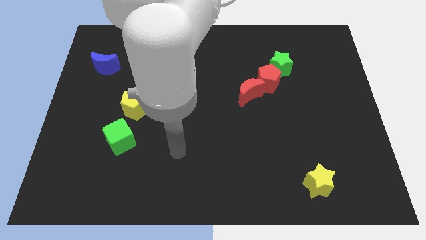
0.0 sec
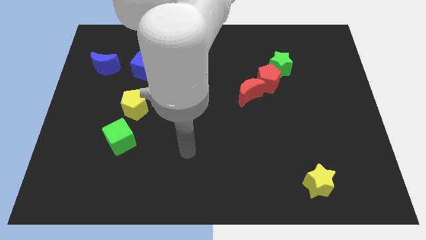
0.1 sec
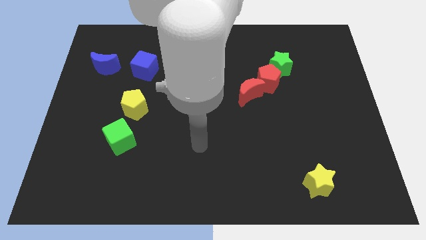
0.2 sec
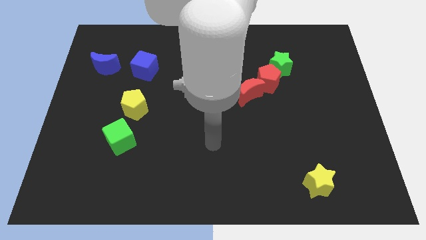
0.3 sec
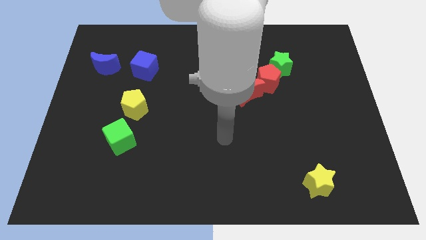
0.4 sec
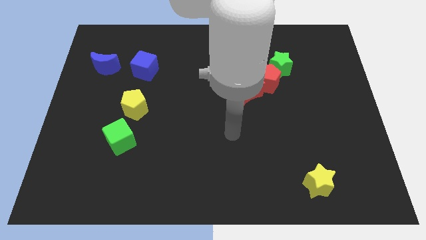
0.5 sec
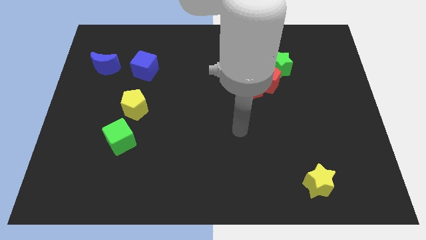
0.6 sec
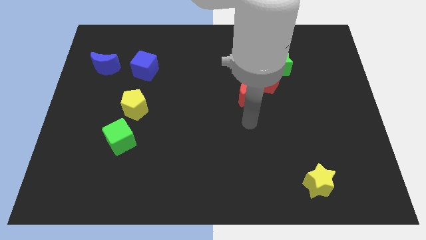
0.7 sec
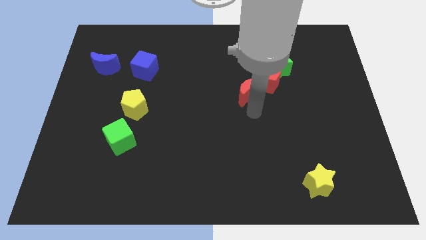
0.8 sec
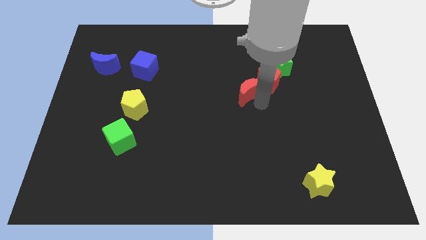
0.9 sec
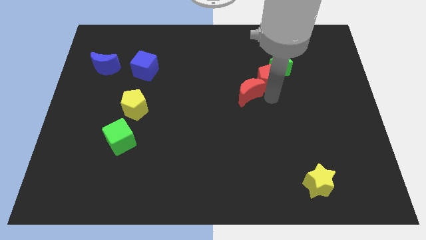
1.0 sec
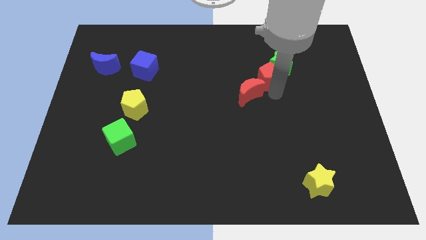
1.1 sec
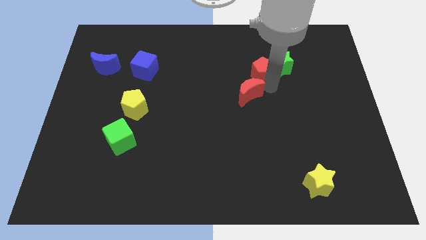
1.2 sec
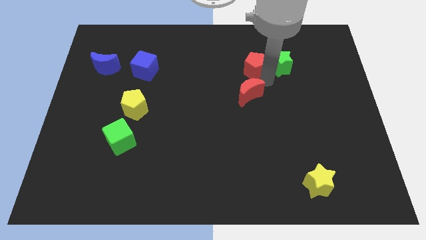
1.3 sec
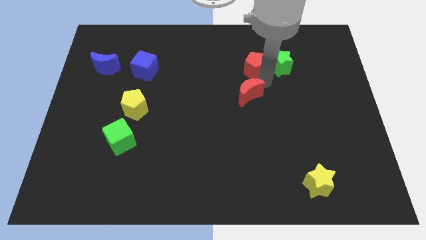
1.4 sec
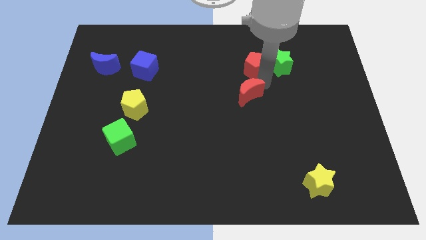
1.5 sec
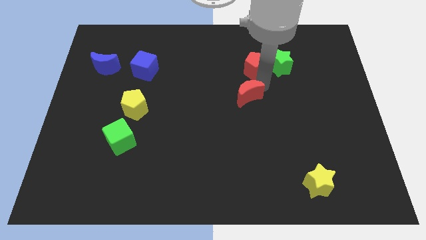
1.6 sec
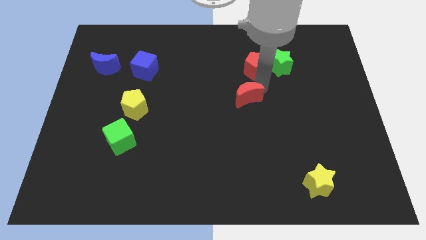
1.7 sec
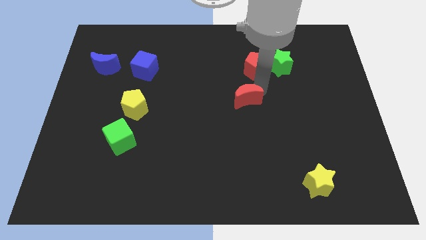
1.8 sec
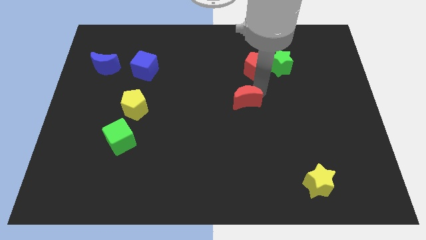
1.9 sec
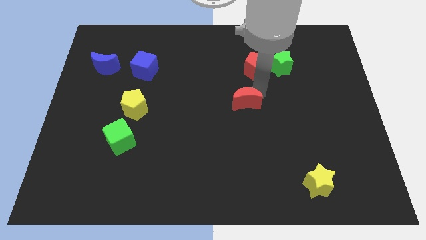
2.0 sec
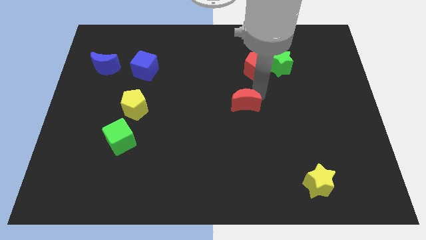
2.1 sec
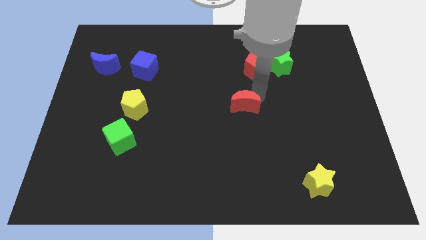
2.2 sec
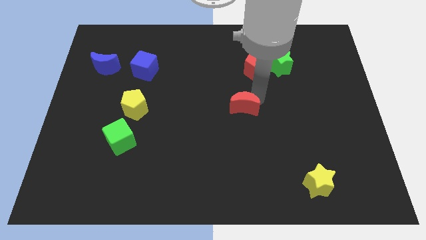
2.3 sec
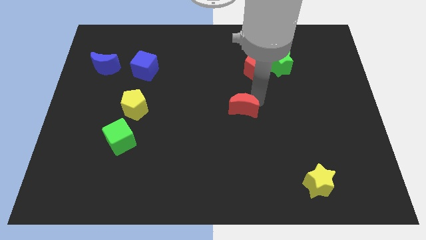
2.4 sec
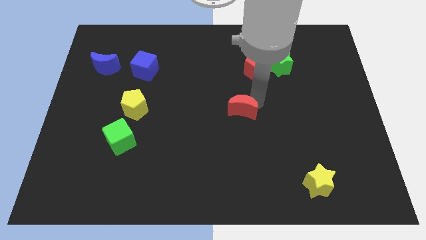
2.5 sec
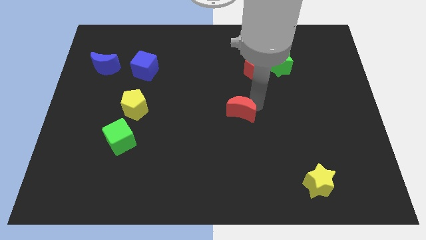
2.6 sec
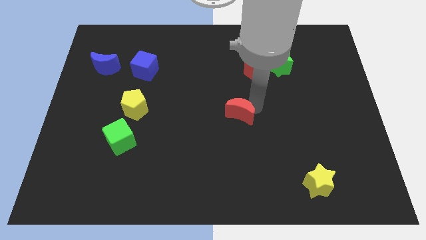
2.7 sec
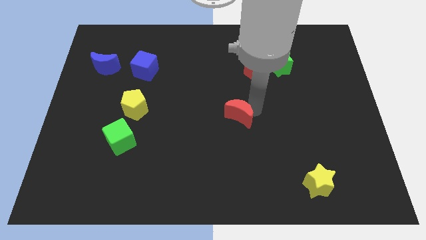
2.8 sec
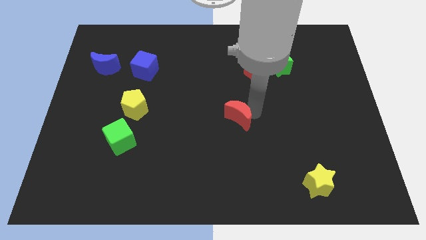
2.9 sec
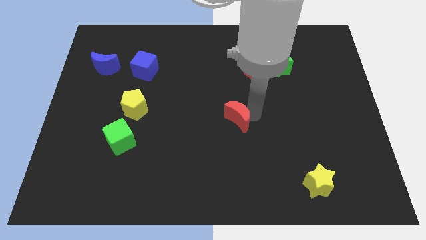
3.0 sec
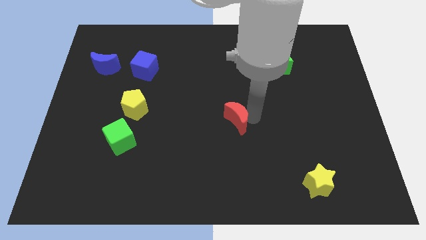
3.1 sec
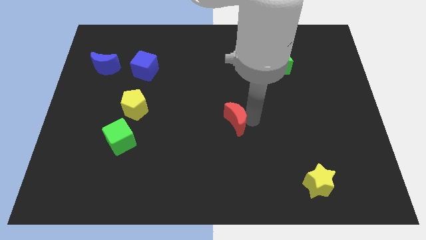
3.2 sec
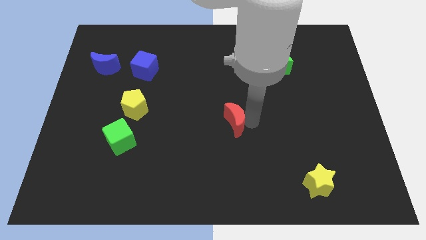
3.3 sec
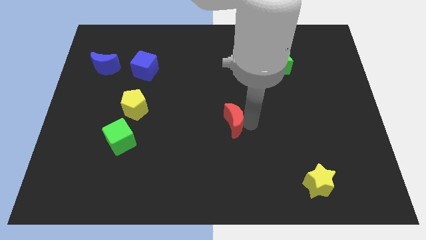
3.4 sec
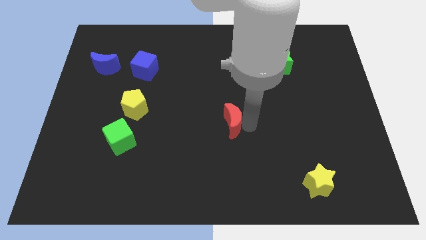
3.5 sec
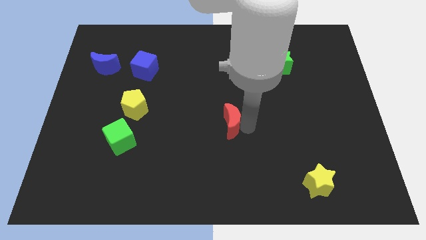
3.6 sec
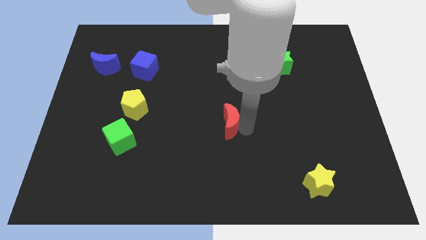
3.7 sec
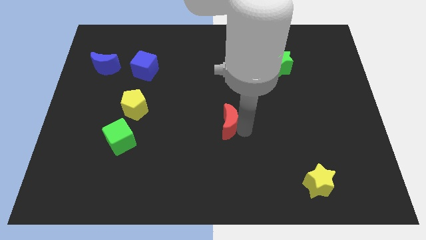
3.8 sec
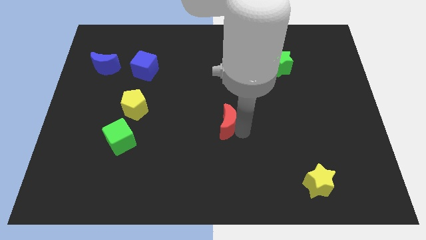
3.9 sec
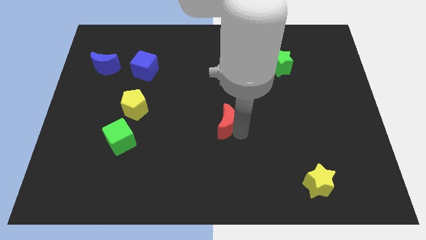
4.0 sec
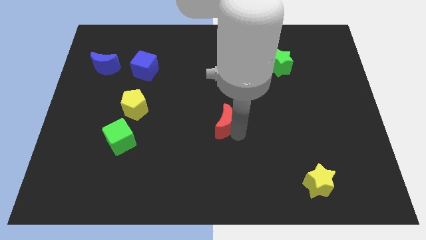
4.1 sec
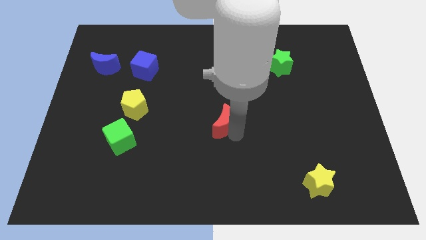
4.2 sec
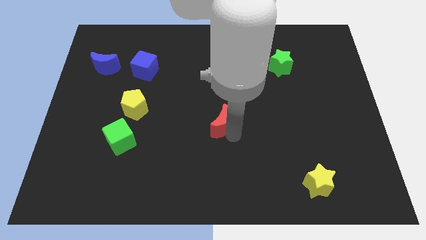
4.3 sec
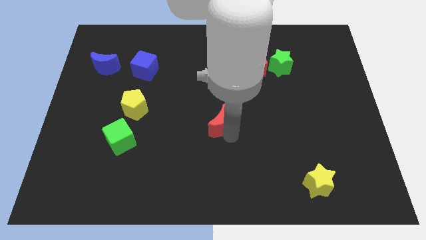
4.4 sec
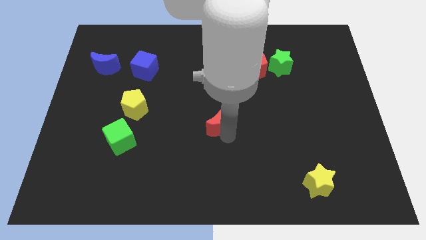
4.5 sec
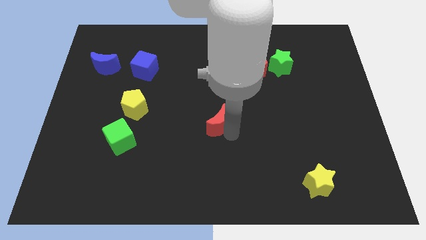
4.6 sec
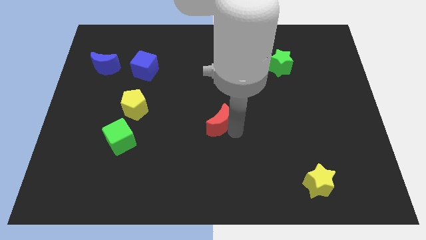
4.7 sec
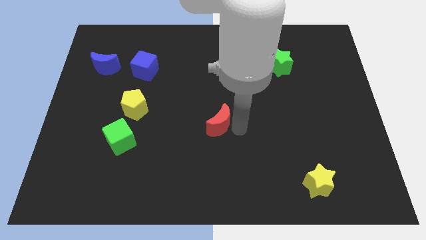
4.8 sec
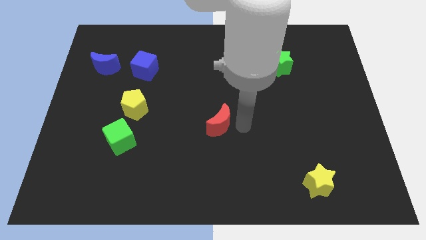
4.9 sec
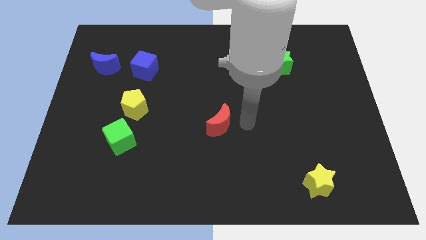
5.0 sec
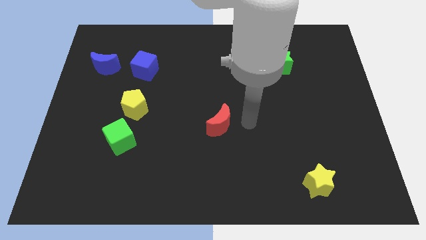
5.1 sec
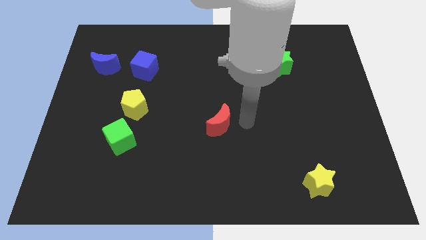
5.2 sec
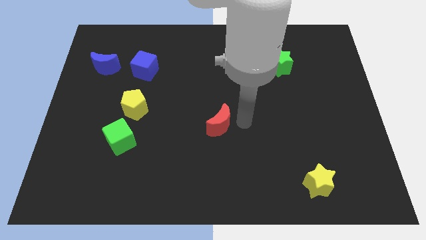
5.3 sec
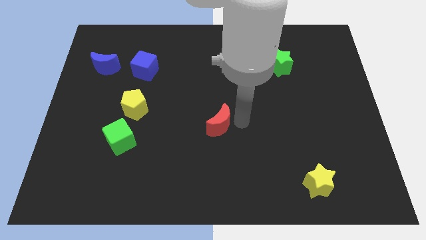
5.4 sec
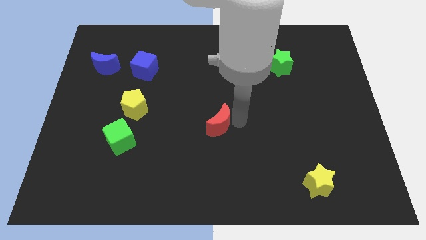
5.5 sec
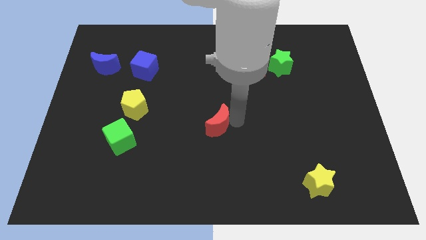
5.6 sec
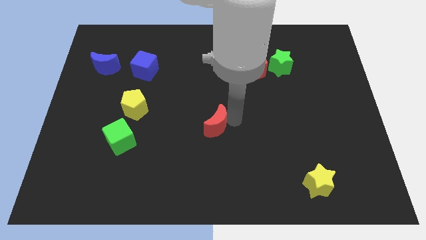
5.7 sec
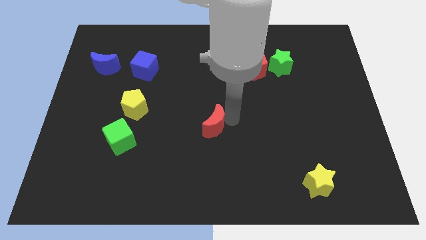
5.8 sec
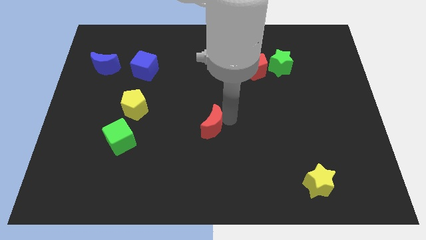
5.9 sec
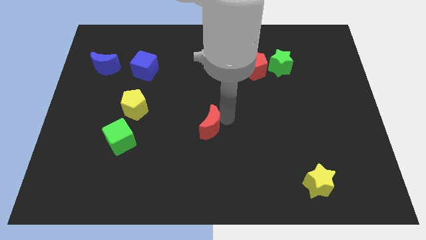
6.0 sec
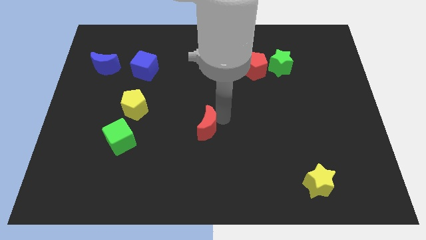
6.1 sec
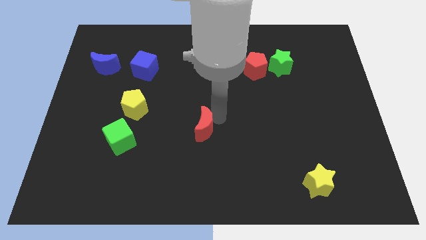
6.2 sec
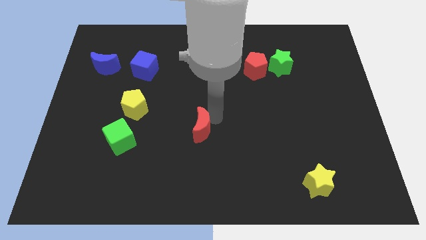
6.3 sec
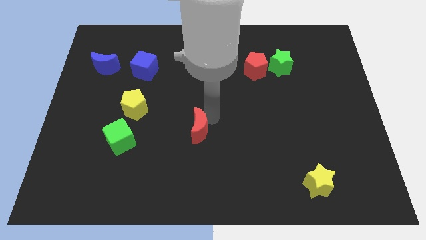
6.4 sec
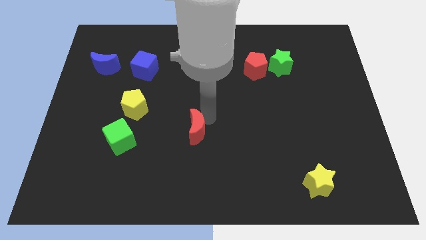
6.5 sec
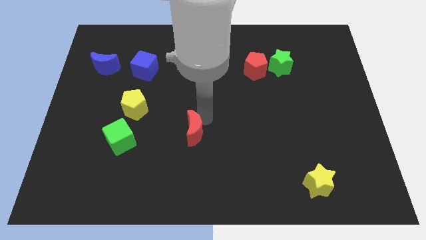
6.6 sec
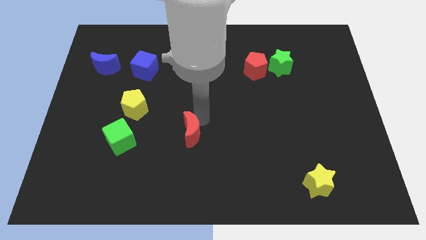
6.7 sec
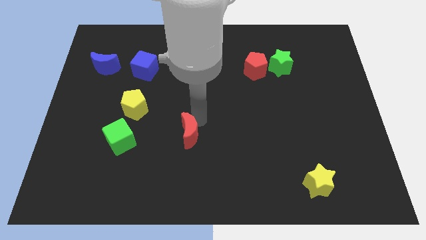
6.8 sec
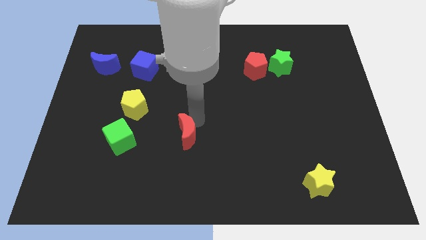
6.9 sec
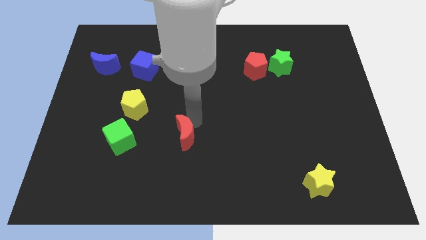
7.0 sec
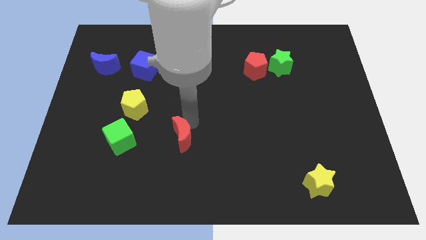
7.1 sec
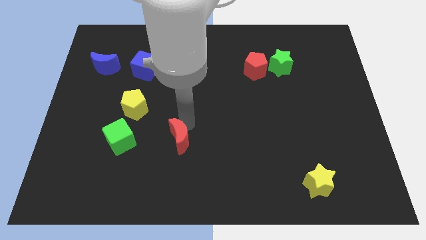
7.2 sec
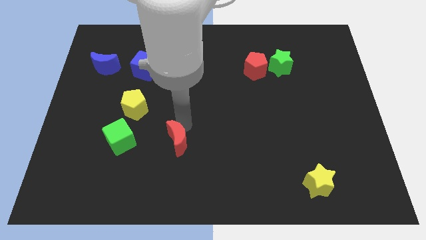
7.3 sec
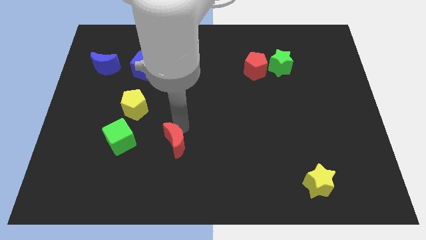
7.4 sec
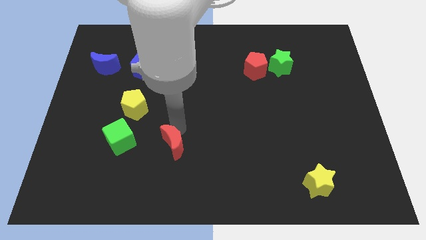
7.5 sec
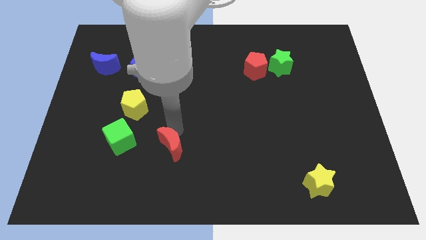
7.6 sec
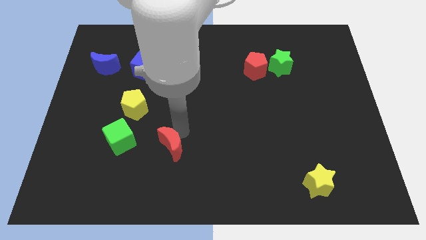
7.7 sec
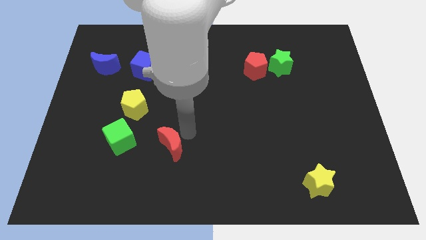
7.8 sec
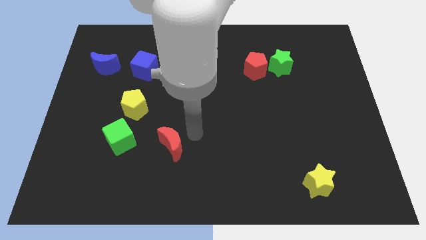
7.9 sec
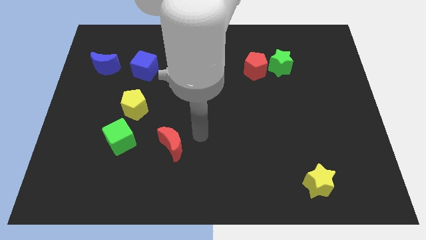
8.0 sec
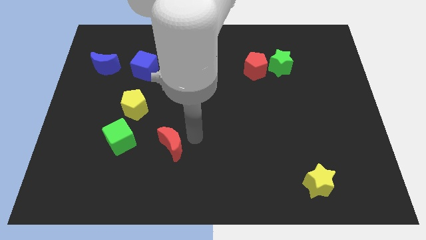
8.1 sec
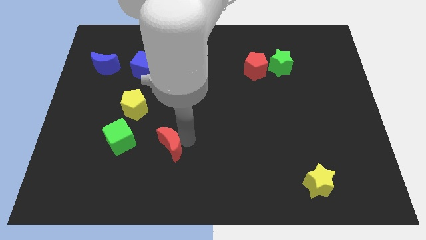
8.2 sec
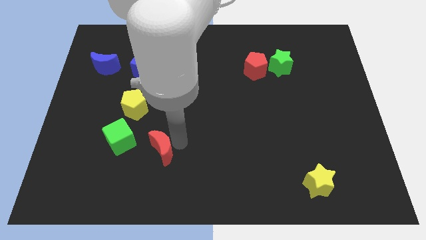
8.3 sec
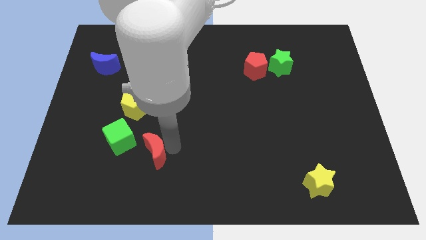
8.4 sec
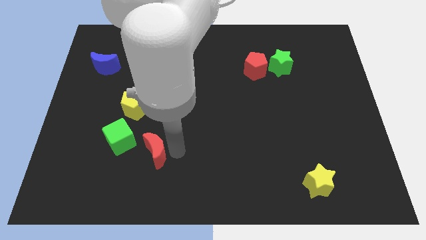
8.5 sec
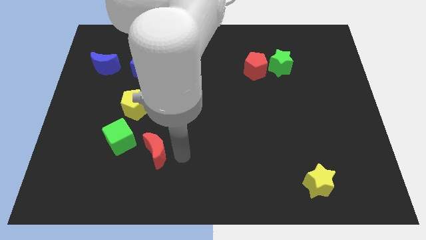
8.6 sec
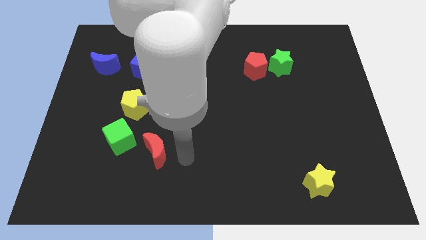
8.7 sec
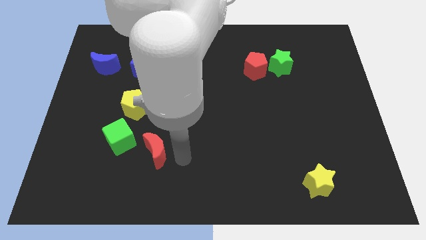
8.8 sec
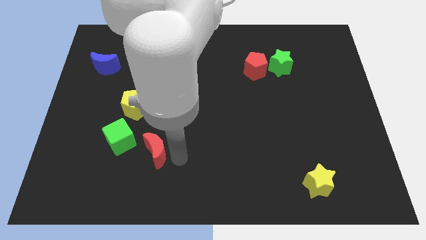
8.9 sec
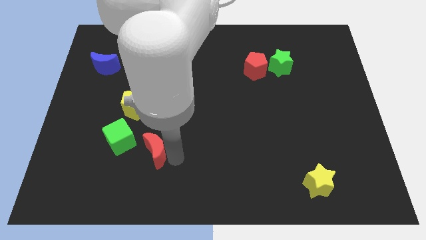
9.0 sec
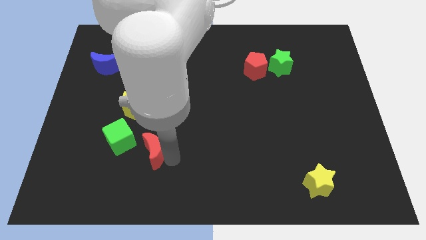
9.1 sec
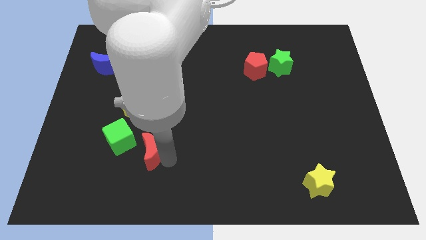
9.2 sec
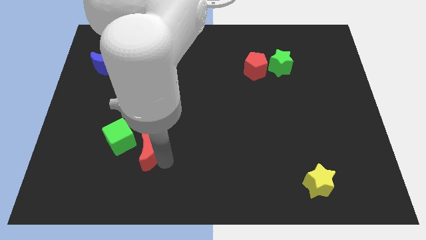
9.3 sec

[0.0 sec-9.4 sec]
put the red moon to the bottom side of the yellow pentagon
